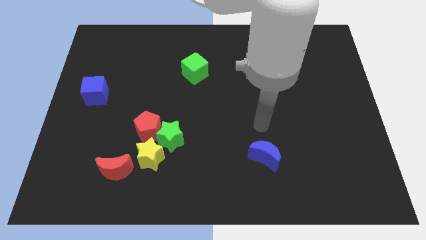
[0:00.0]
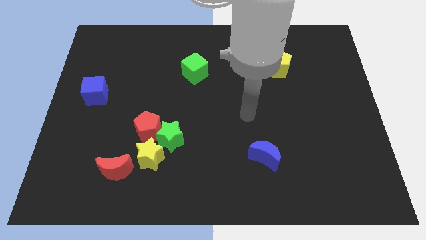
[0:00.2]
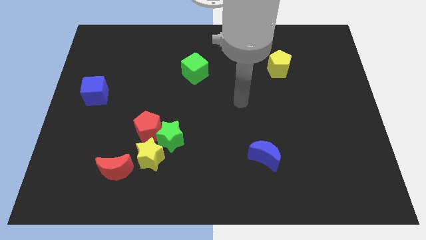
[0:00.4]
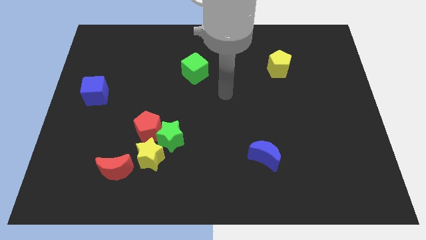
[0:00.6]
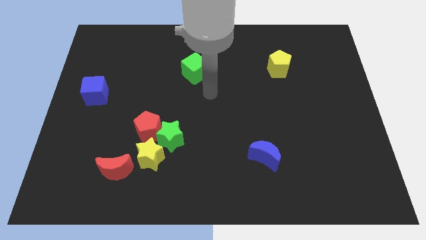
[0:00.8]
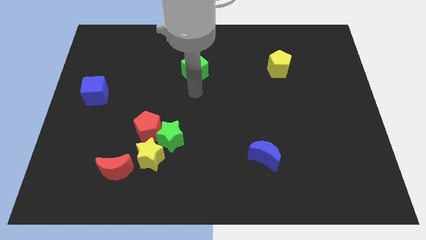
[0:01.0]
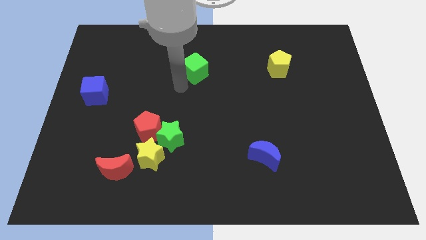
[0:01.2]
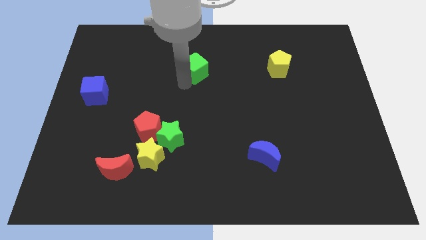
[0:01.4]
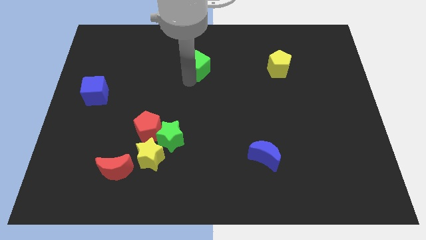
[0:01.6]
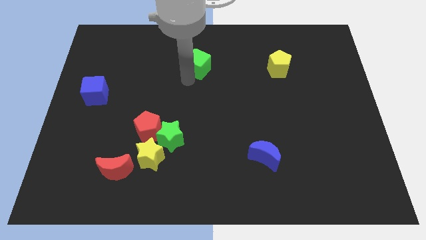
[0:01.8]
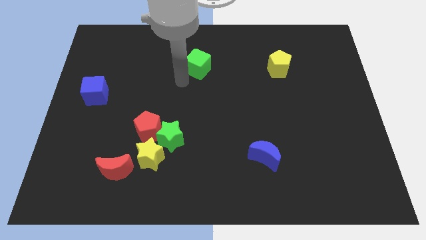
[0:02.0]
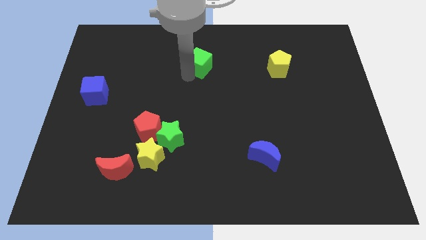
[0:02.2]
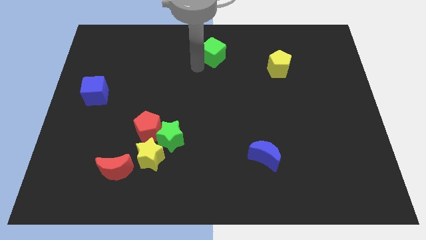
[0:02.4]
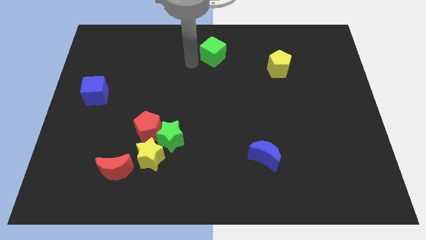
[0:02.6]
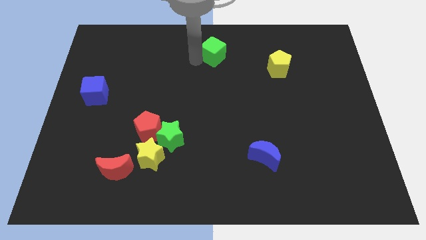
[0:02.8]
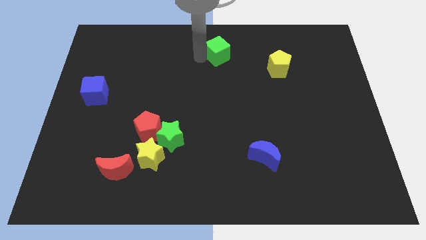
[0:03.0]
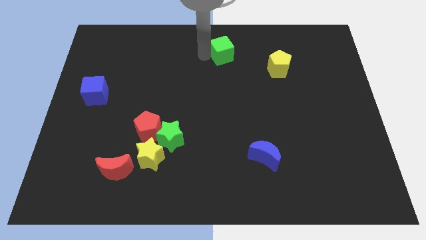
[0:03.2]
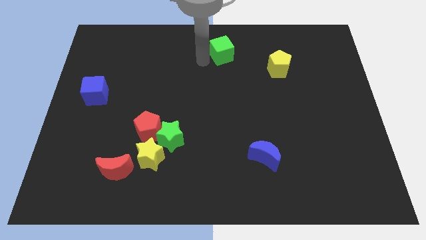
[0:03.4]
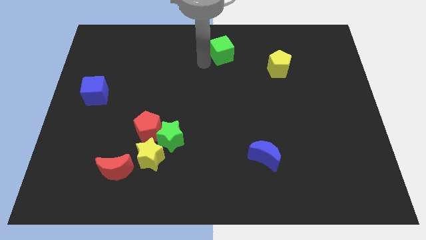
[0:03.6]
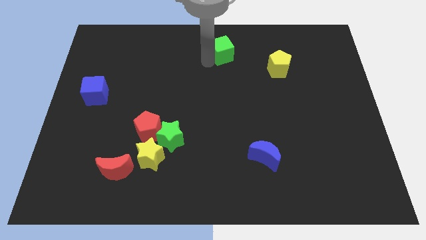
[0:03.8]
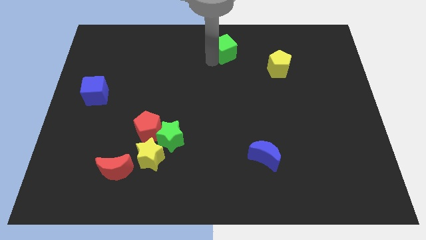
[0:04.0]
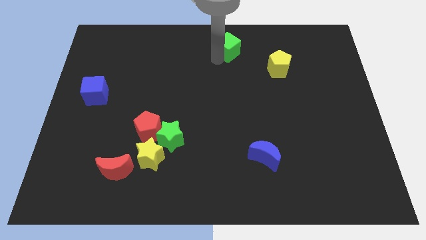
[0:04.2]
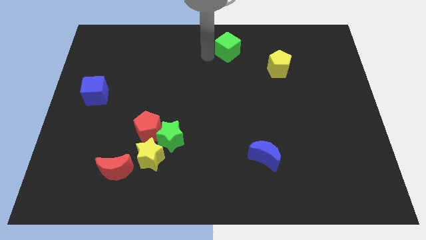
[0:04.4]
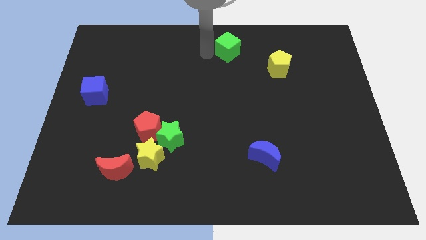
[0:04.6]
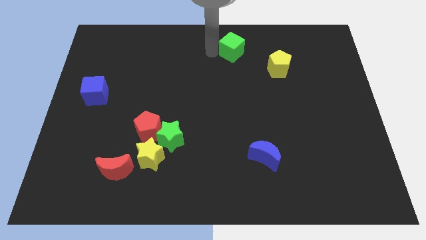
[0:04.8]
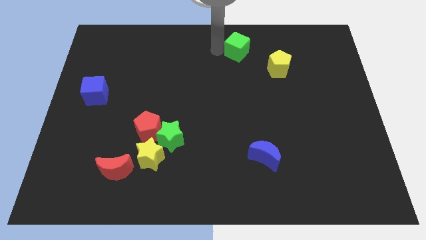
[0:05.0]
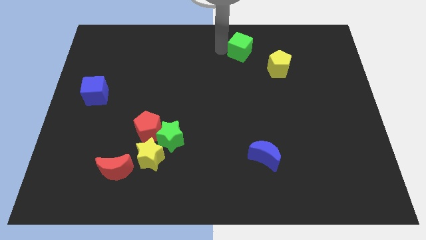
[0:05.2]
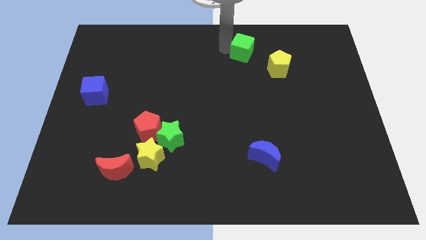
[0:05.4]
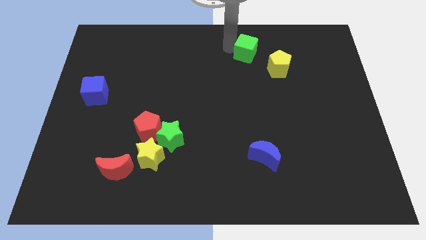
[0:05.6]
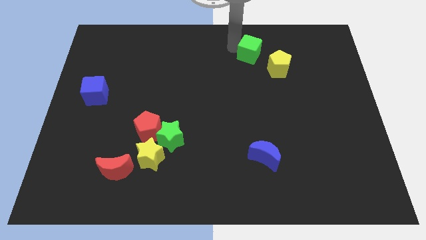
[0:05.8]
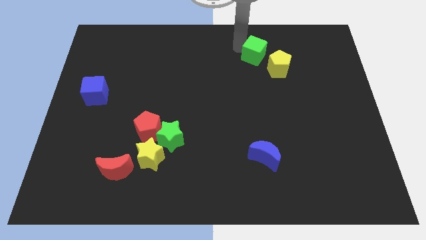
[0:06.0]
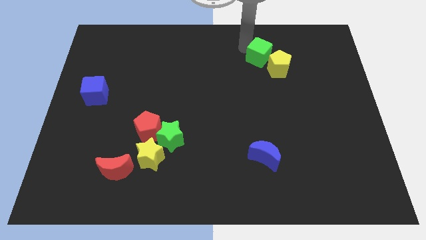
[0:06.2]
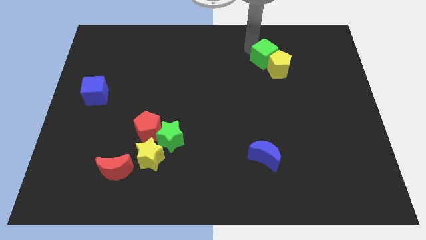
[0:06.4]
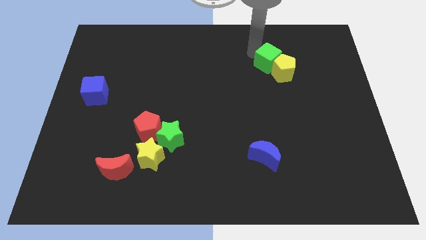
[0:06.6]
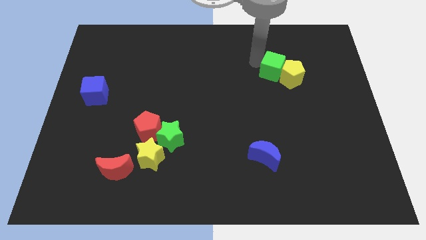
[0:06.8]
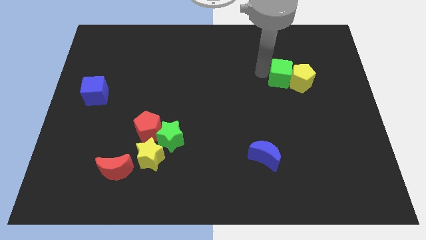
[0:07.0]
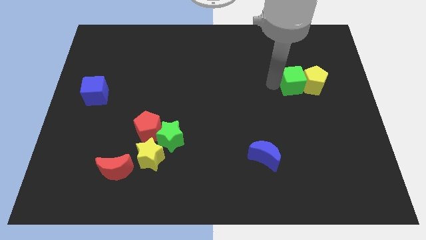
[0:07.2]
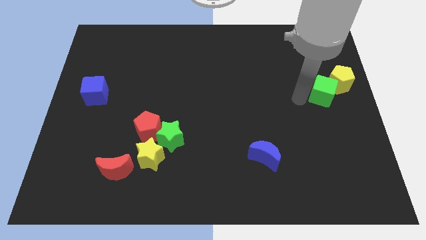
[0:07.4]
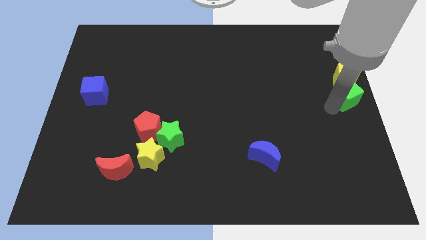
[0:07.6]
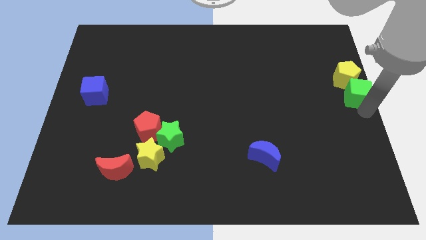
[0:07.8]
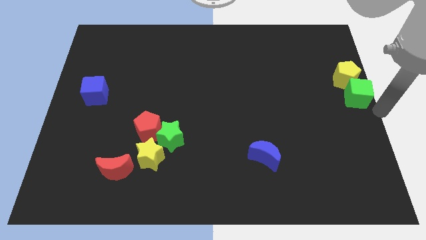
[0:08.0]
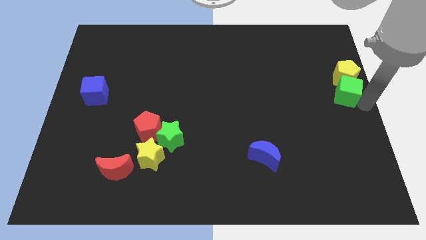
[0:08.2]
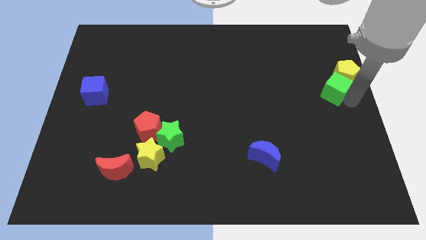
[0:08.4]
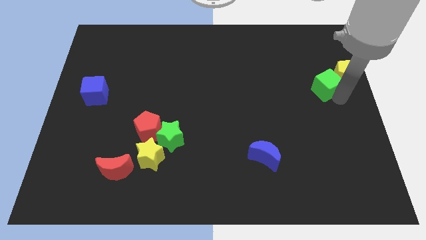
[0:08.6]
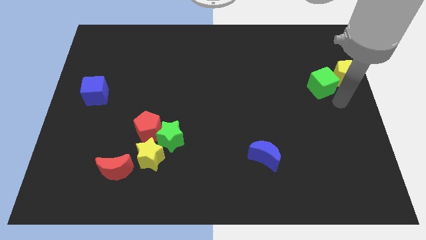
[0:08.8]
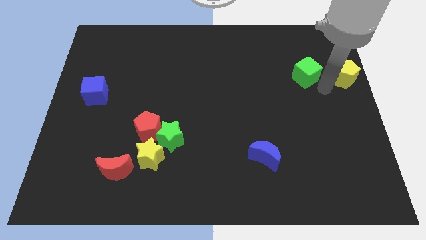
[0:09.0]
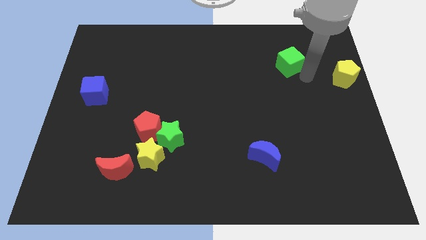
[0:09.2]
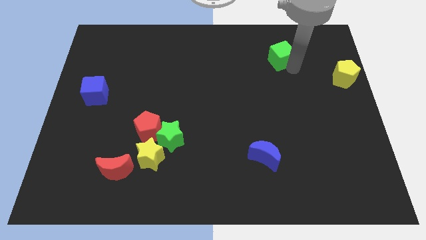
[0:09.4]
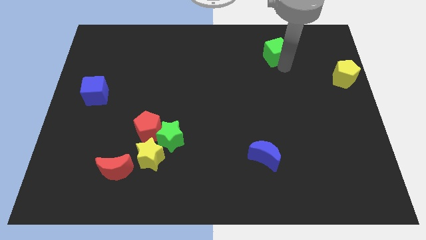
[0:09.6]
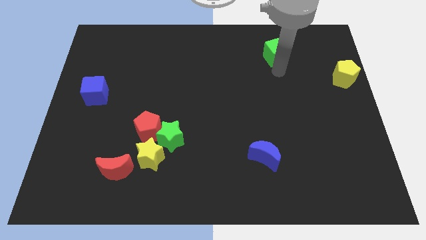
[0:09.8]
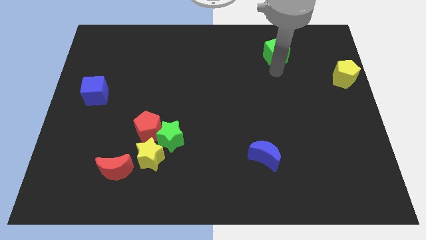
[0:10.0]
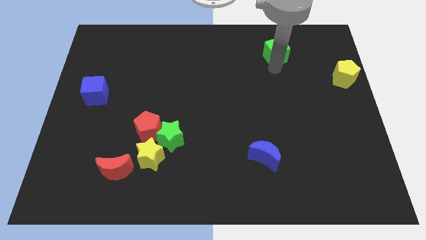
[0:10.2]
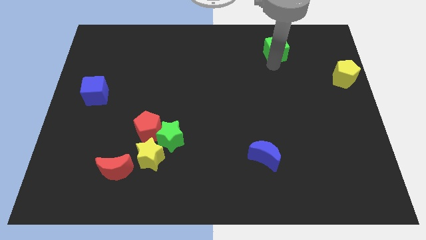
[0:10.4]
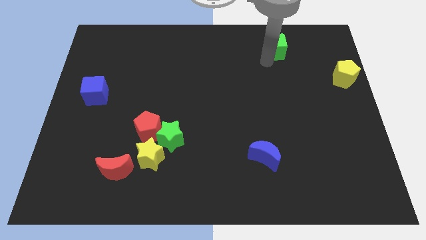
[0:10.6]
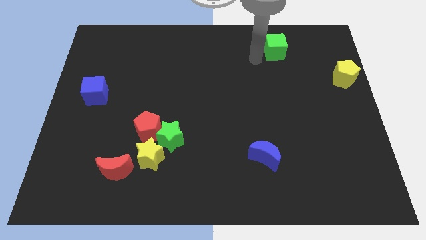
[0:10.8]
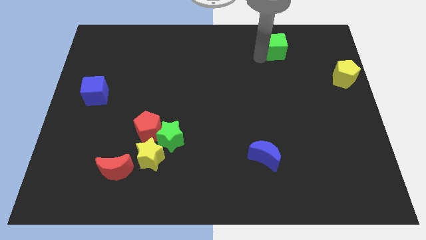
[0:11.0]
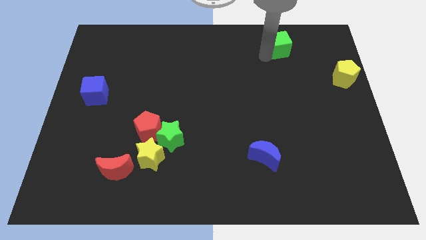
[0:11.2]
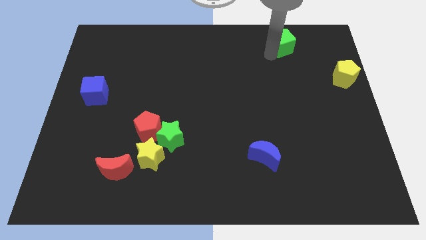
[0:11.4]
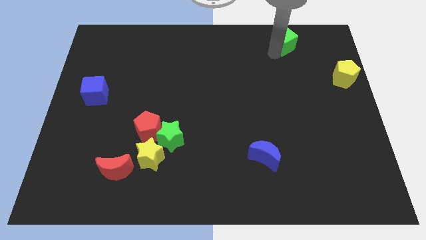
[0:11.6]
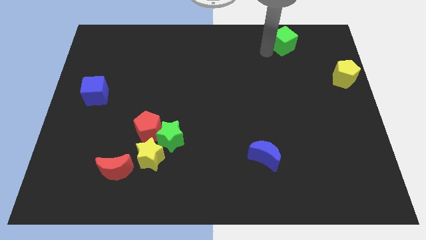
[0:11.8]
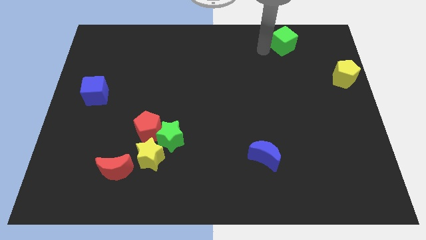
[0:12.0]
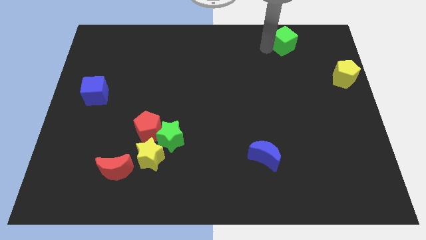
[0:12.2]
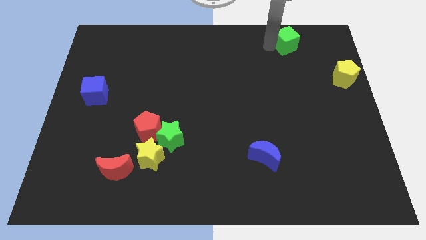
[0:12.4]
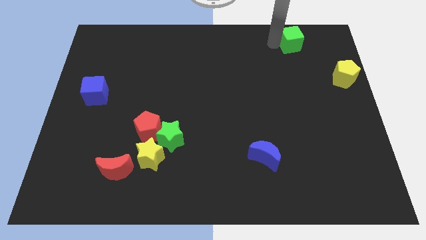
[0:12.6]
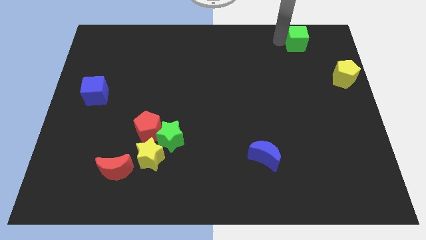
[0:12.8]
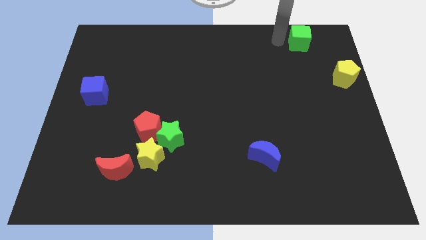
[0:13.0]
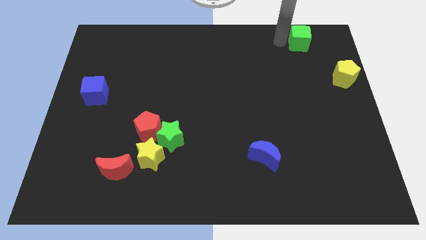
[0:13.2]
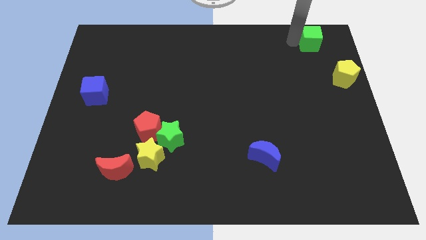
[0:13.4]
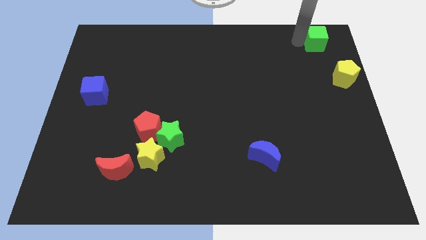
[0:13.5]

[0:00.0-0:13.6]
put the green cube to the top right of the board

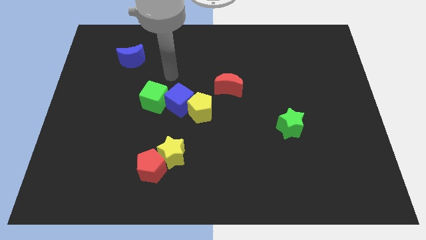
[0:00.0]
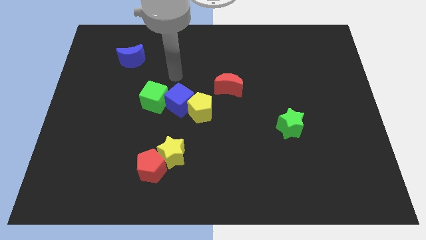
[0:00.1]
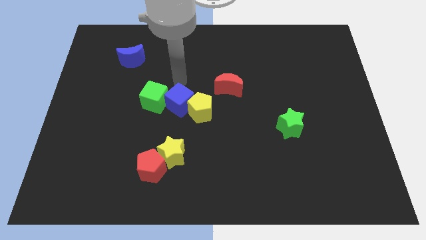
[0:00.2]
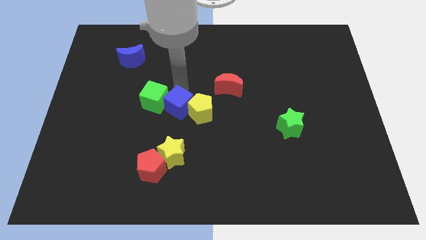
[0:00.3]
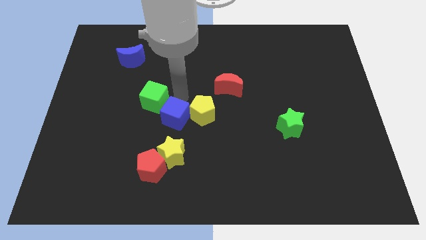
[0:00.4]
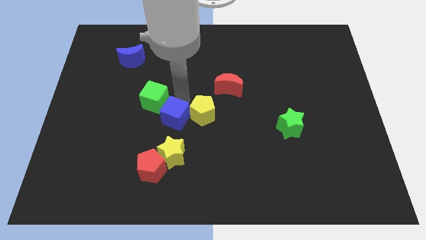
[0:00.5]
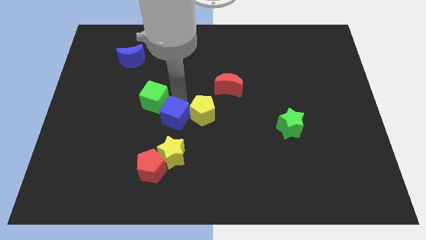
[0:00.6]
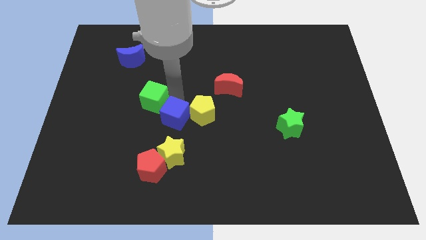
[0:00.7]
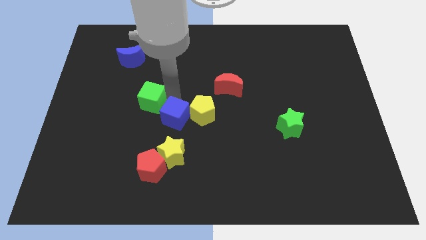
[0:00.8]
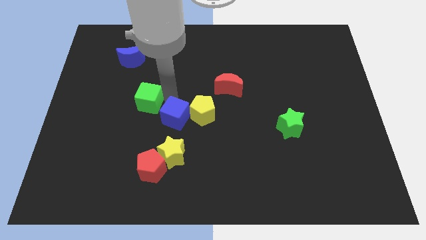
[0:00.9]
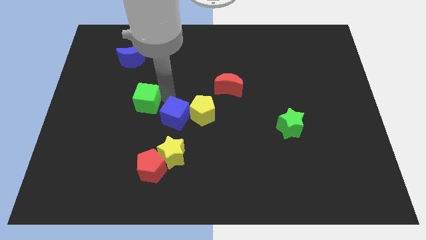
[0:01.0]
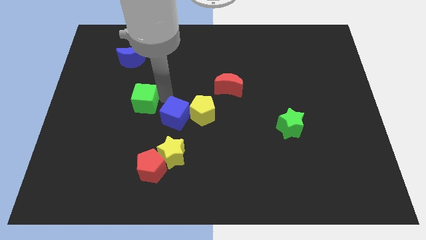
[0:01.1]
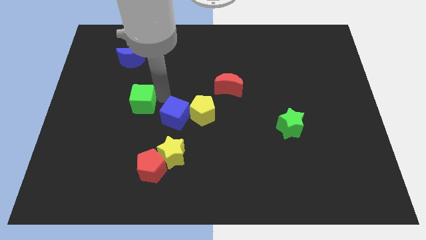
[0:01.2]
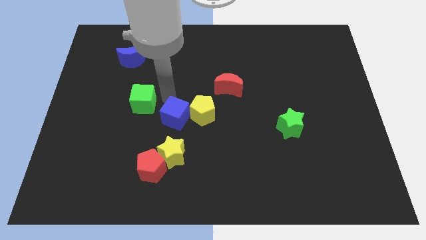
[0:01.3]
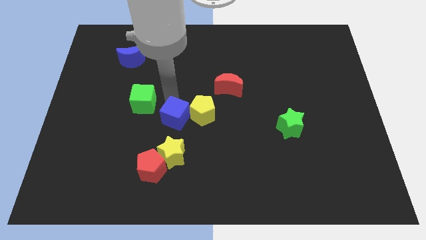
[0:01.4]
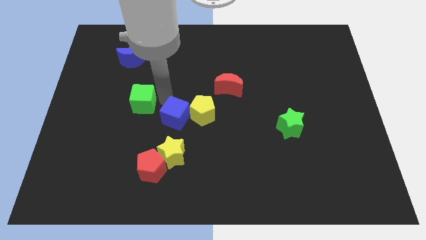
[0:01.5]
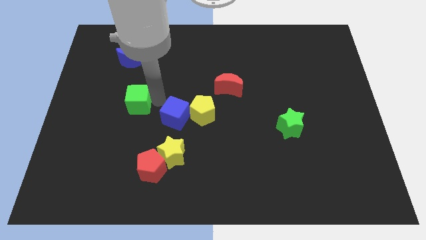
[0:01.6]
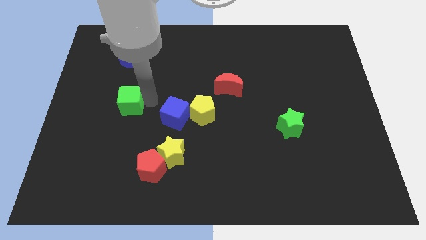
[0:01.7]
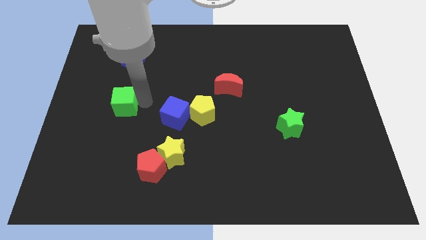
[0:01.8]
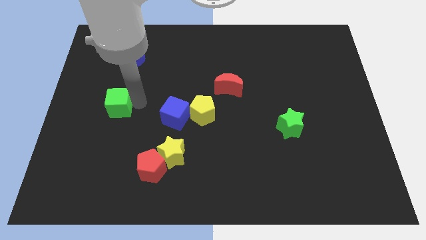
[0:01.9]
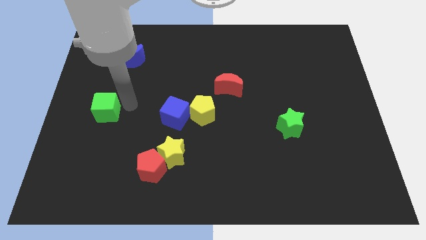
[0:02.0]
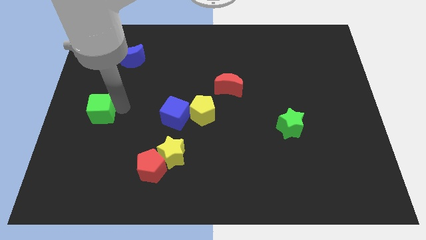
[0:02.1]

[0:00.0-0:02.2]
put the green cube to the center left
